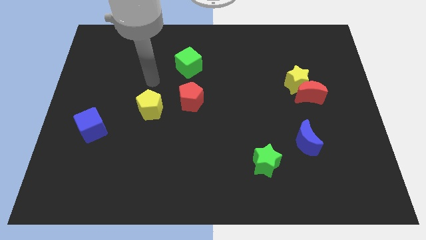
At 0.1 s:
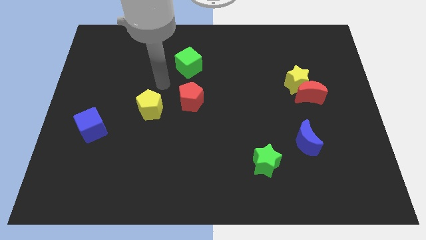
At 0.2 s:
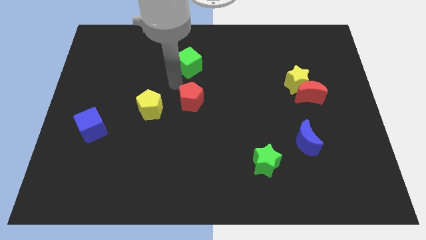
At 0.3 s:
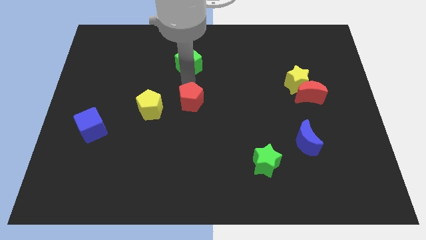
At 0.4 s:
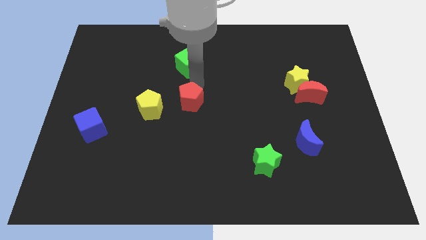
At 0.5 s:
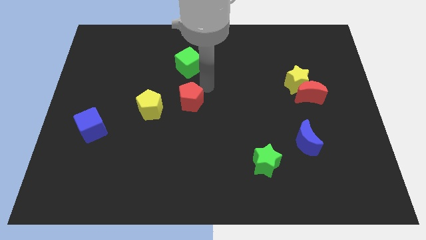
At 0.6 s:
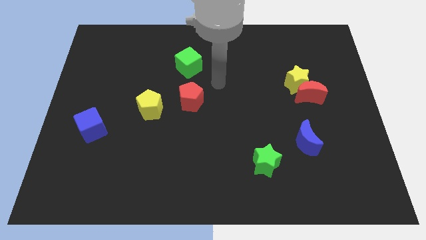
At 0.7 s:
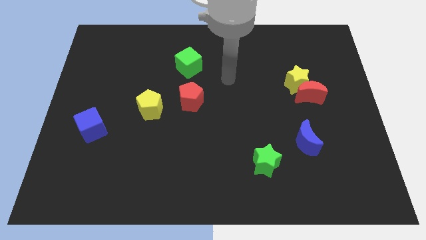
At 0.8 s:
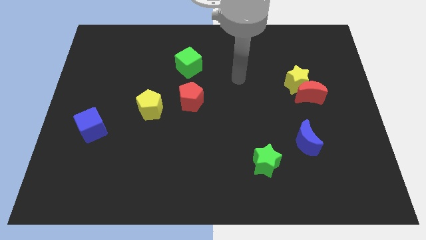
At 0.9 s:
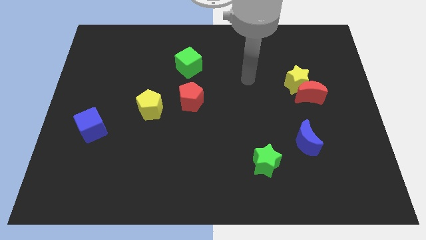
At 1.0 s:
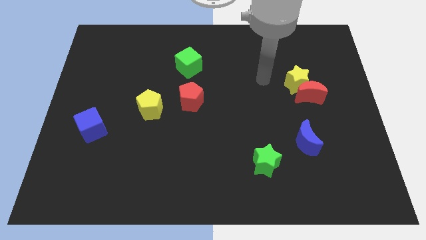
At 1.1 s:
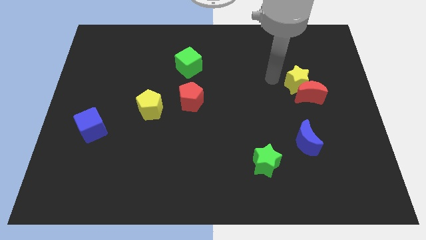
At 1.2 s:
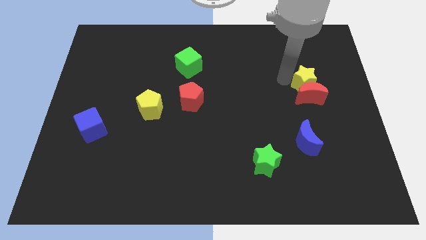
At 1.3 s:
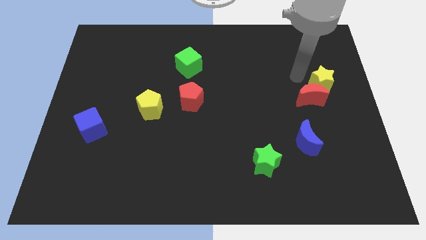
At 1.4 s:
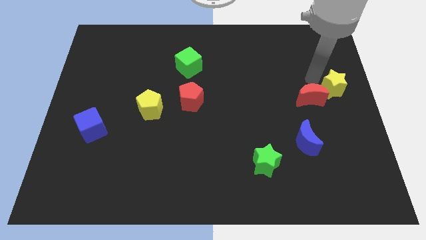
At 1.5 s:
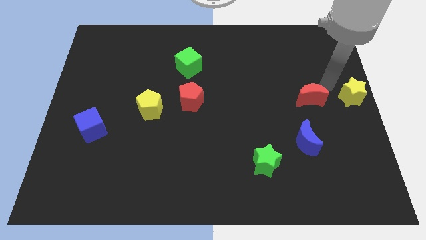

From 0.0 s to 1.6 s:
separate the red moon from the yellow star

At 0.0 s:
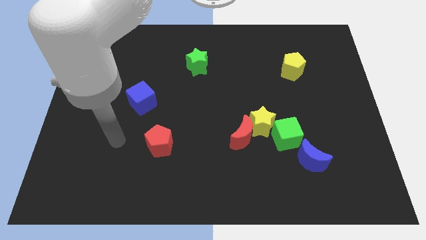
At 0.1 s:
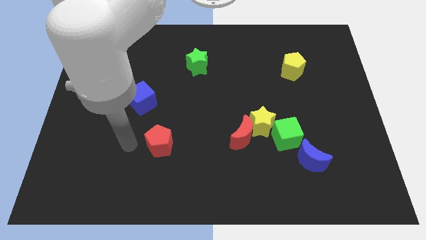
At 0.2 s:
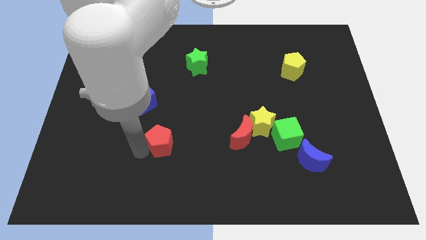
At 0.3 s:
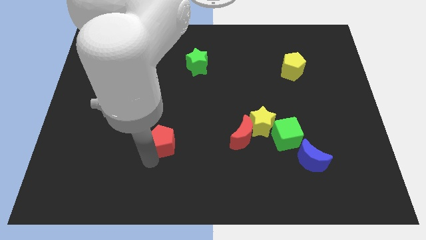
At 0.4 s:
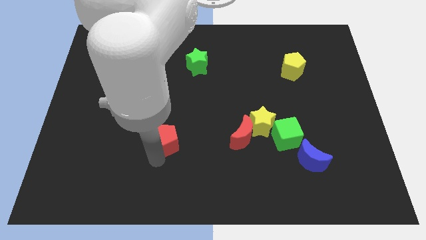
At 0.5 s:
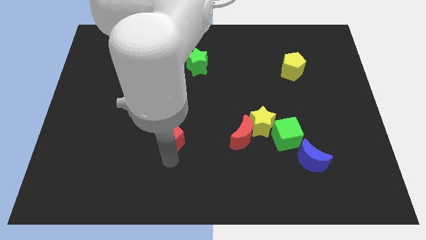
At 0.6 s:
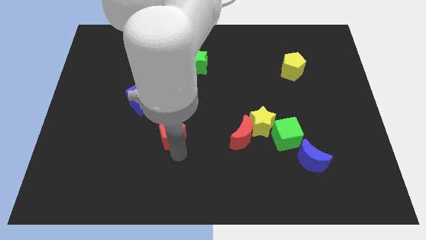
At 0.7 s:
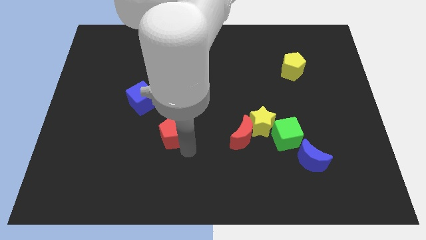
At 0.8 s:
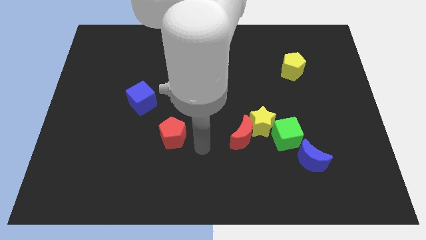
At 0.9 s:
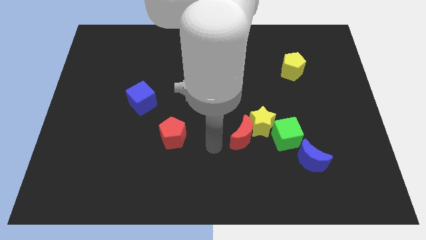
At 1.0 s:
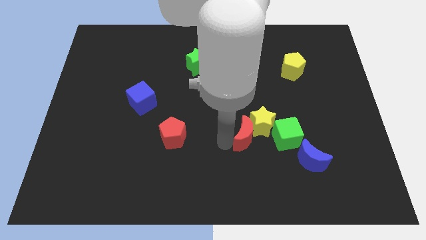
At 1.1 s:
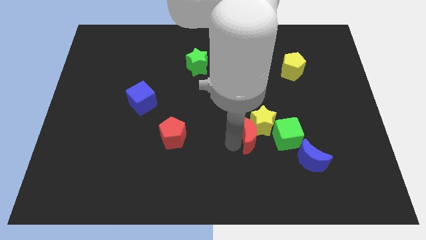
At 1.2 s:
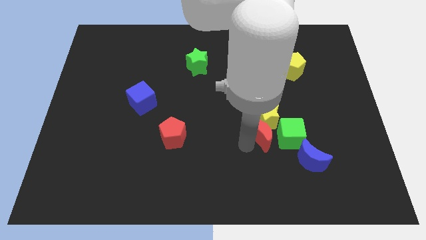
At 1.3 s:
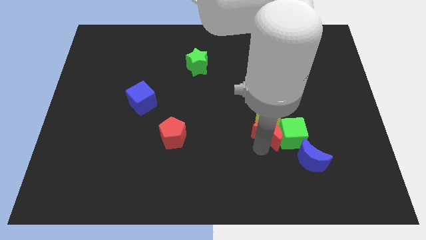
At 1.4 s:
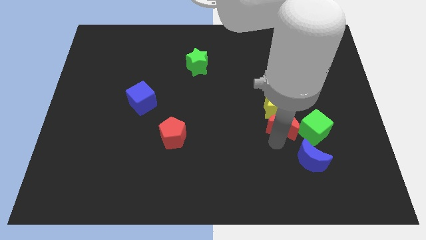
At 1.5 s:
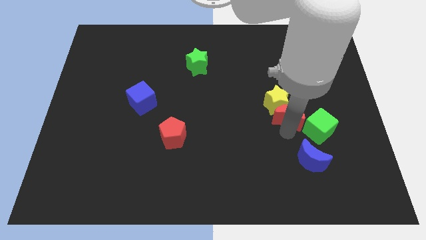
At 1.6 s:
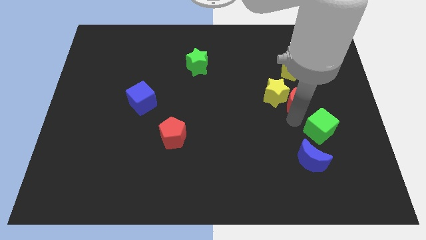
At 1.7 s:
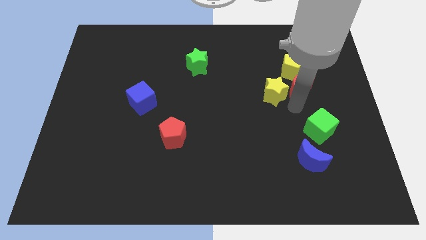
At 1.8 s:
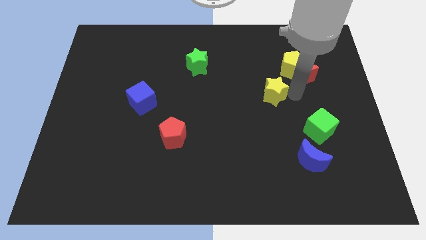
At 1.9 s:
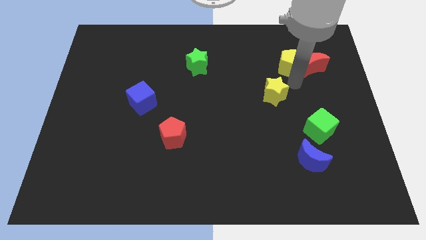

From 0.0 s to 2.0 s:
separate the yellow star from the red moon and green cube

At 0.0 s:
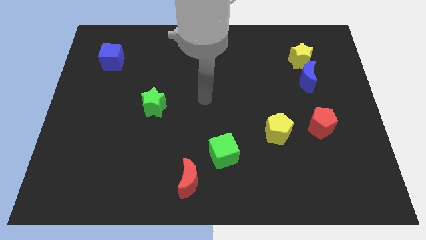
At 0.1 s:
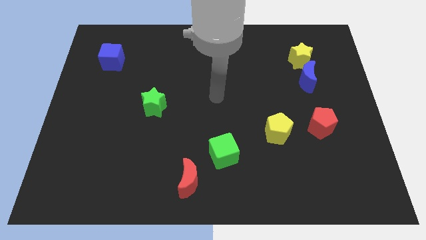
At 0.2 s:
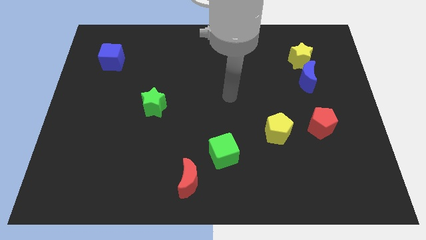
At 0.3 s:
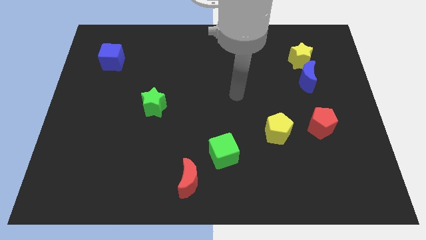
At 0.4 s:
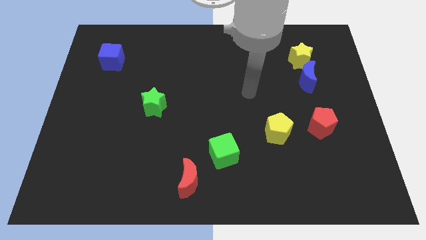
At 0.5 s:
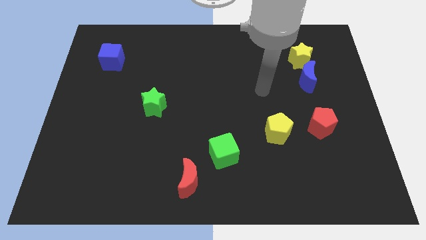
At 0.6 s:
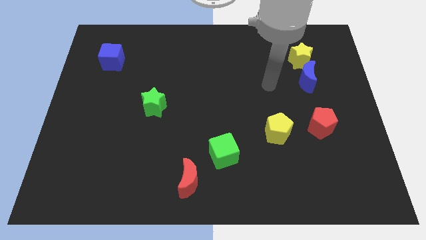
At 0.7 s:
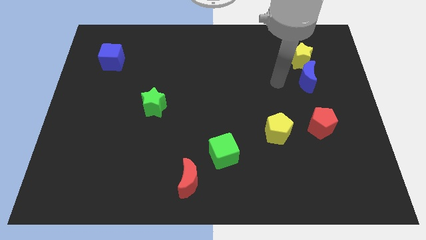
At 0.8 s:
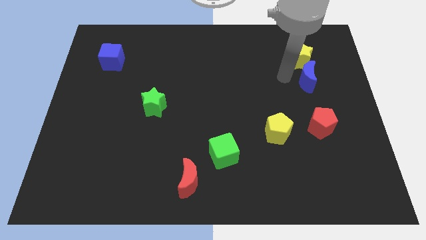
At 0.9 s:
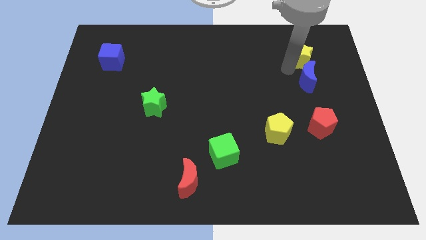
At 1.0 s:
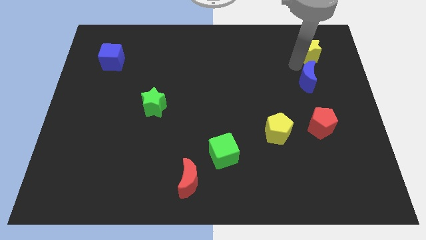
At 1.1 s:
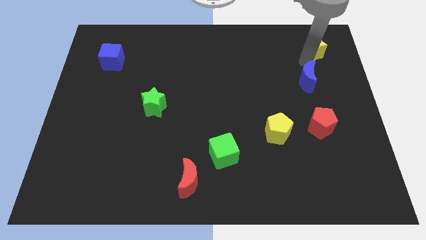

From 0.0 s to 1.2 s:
separate the blue moon from the yellow star

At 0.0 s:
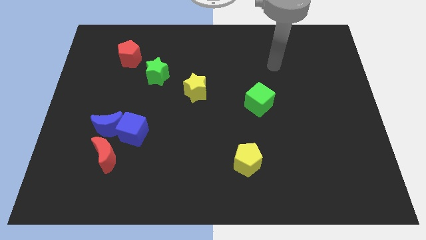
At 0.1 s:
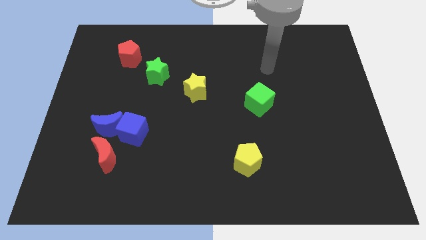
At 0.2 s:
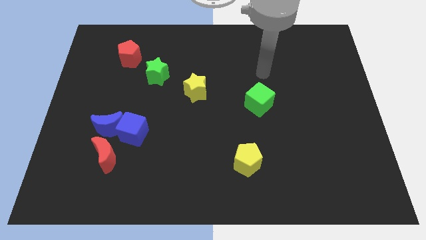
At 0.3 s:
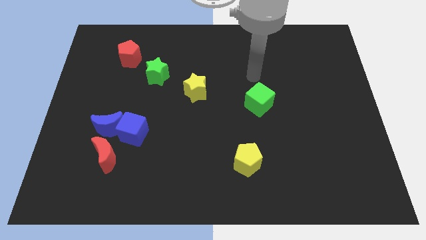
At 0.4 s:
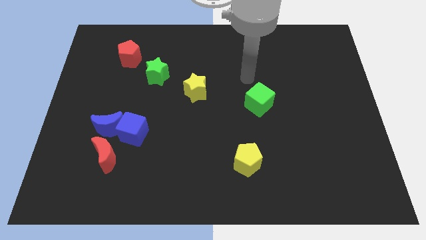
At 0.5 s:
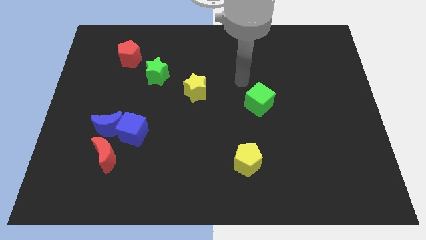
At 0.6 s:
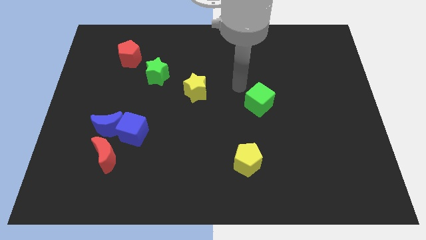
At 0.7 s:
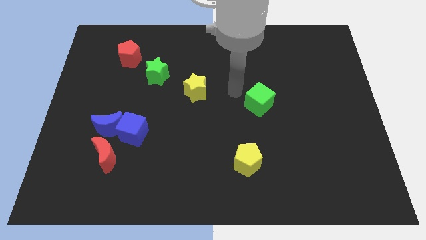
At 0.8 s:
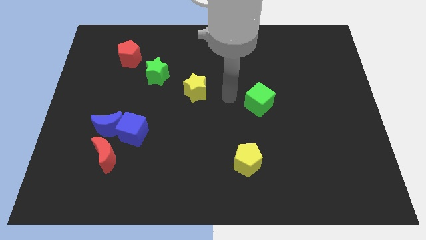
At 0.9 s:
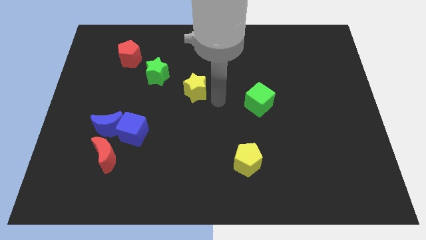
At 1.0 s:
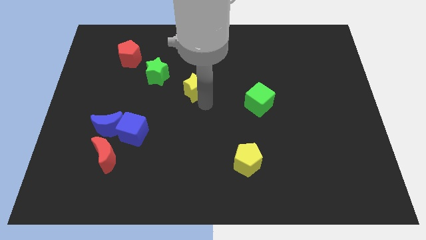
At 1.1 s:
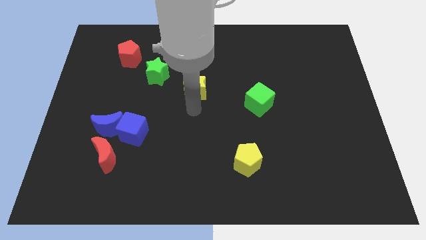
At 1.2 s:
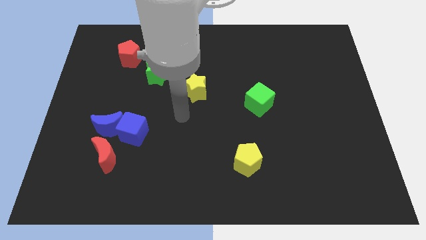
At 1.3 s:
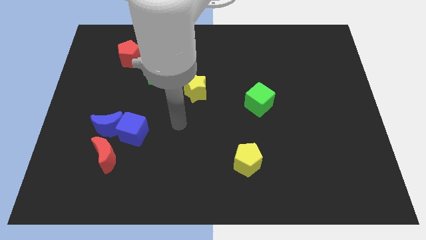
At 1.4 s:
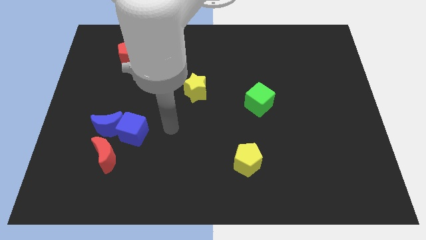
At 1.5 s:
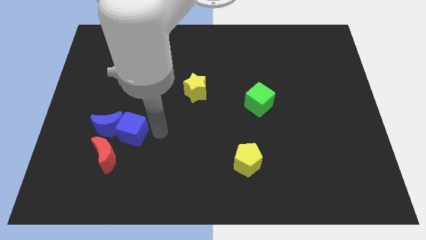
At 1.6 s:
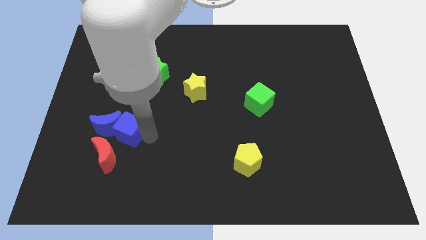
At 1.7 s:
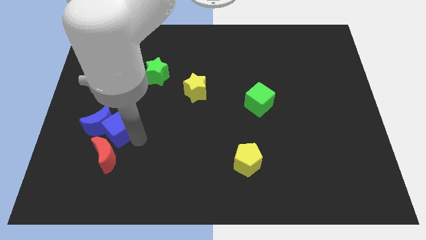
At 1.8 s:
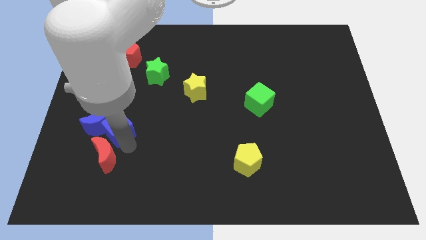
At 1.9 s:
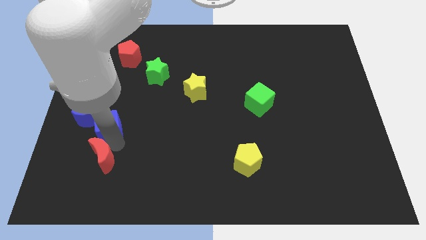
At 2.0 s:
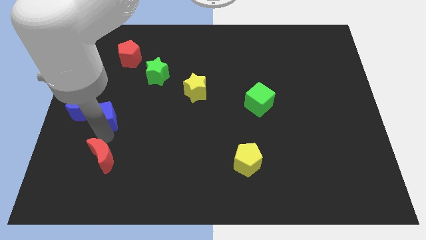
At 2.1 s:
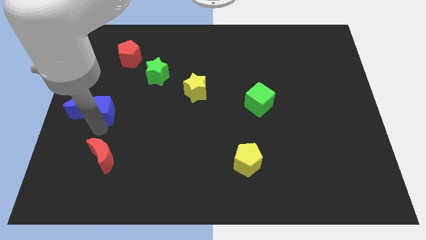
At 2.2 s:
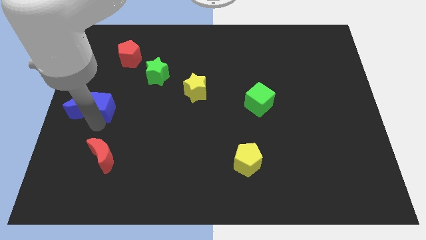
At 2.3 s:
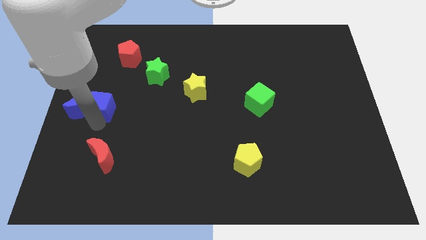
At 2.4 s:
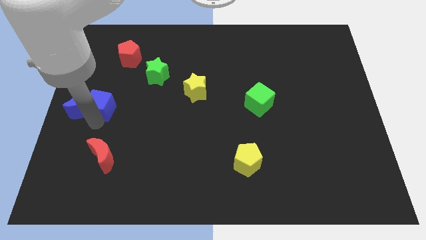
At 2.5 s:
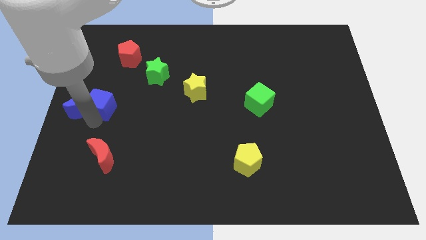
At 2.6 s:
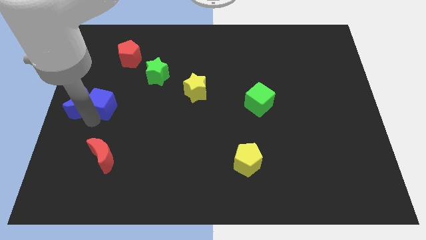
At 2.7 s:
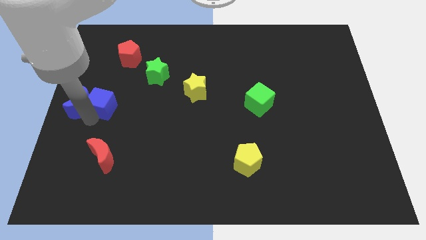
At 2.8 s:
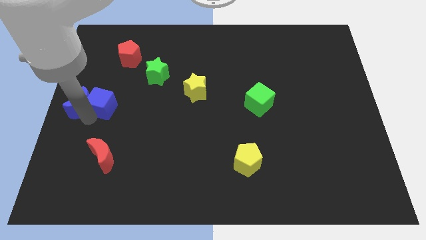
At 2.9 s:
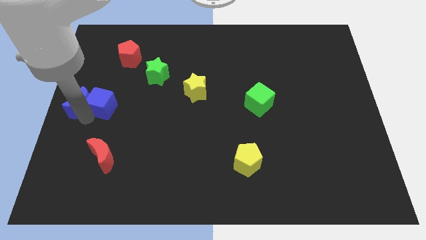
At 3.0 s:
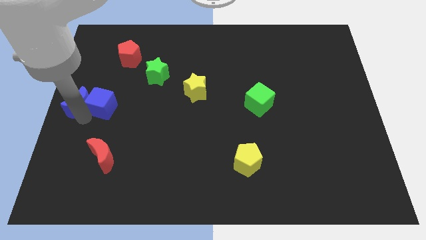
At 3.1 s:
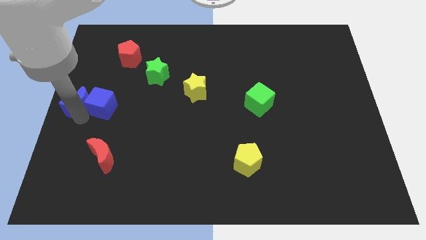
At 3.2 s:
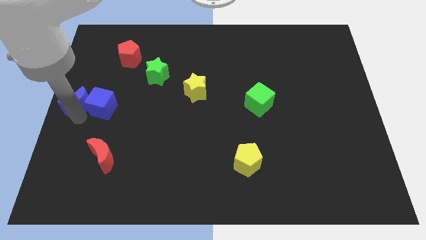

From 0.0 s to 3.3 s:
move the blue moon away from the blue cube and red moon

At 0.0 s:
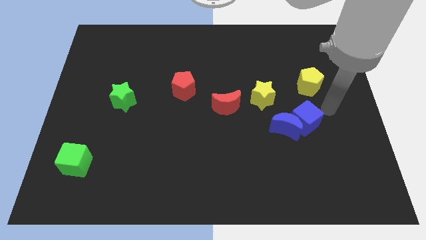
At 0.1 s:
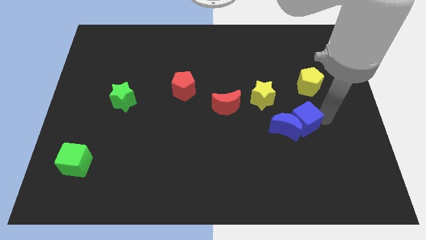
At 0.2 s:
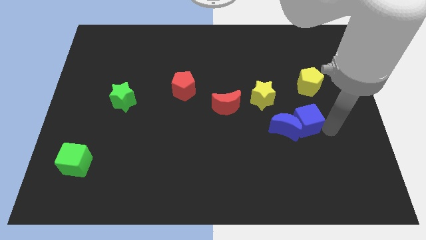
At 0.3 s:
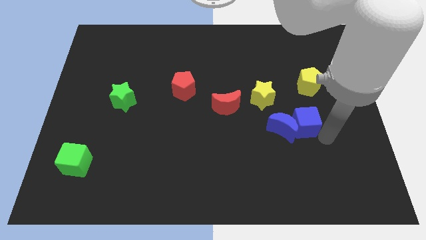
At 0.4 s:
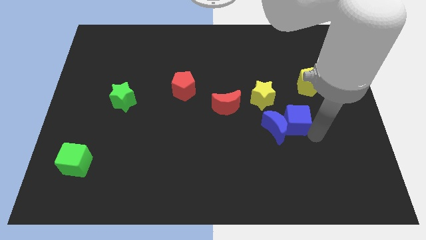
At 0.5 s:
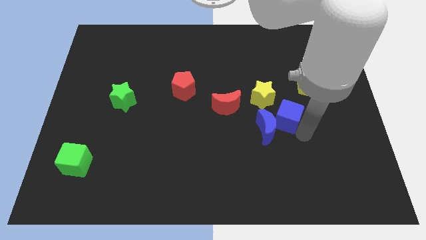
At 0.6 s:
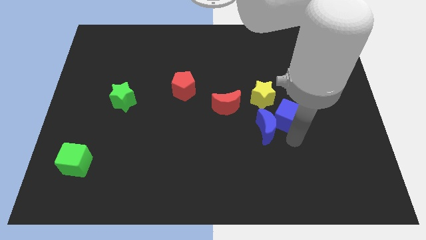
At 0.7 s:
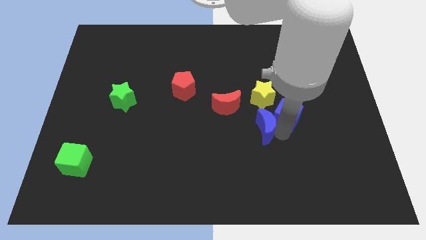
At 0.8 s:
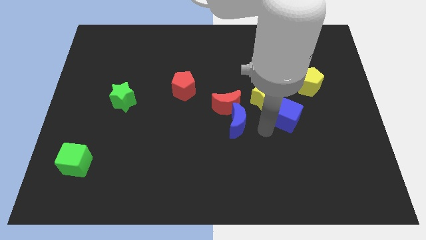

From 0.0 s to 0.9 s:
move the blue cube away from the blue moon

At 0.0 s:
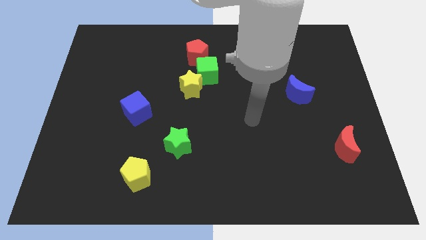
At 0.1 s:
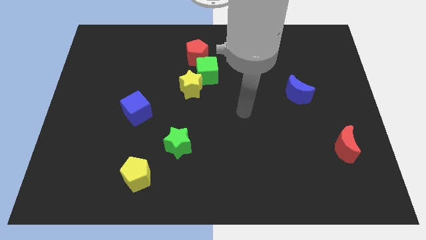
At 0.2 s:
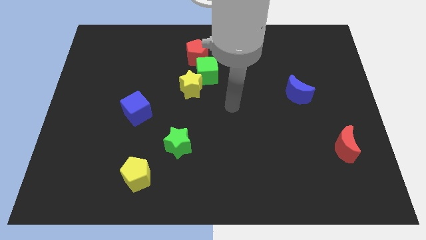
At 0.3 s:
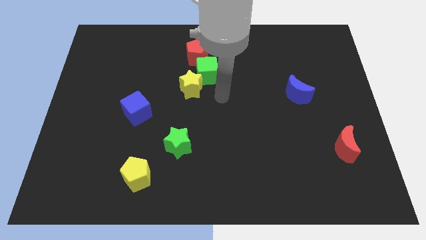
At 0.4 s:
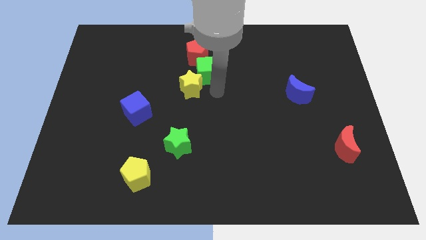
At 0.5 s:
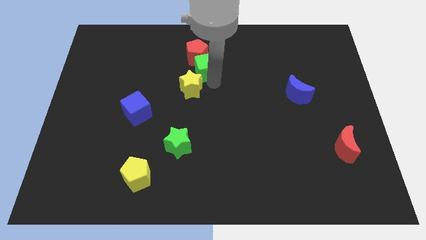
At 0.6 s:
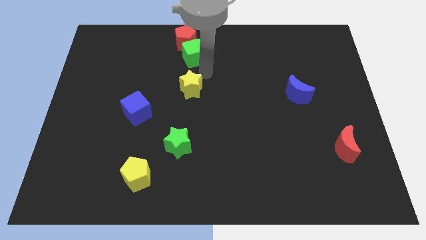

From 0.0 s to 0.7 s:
move the yellow star away from the green cube
